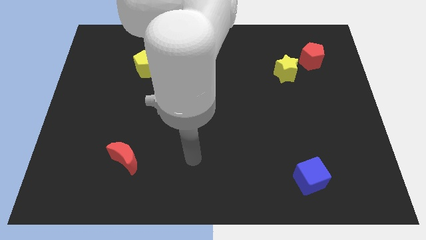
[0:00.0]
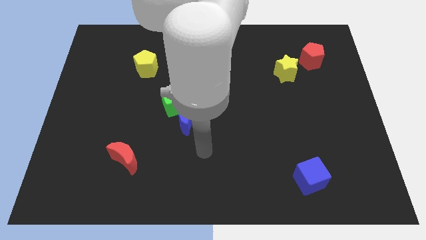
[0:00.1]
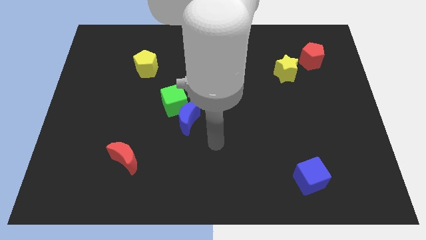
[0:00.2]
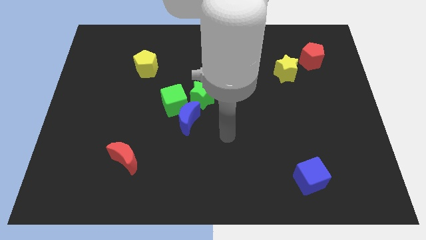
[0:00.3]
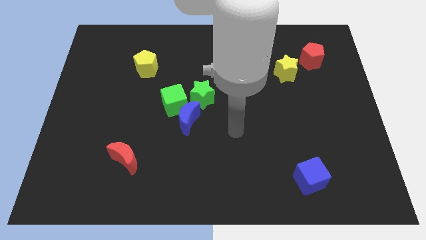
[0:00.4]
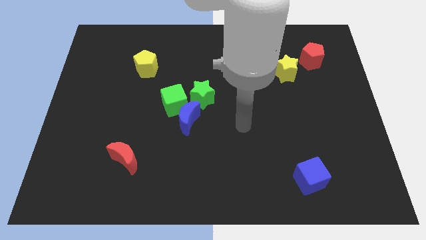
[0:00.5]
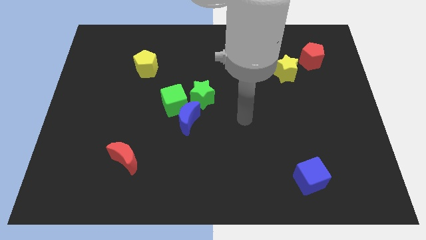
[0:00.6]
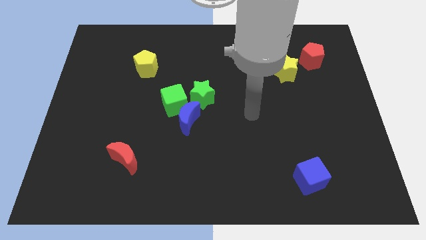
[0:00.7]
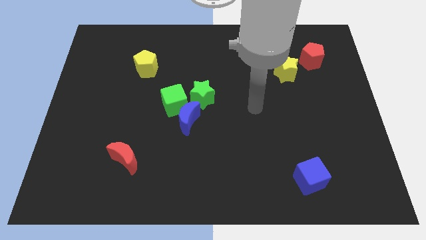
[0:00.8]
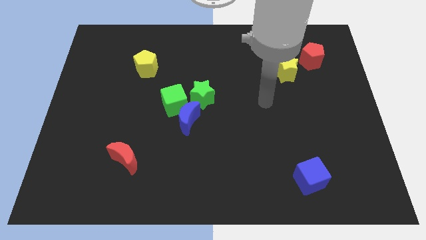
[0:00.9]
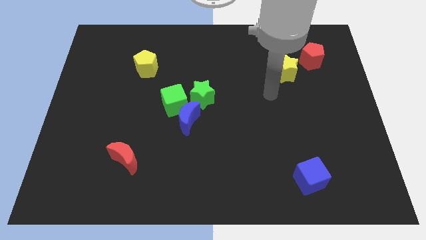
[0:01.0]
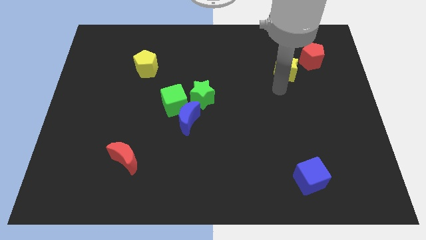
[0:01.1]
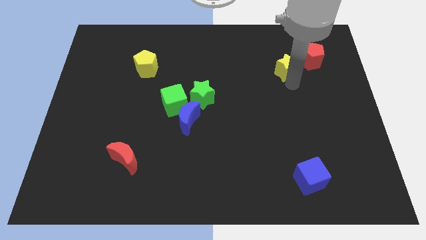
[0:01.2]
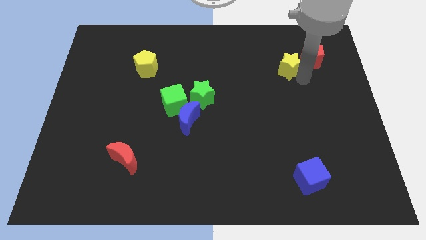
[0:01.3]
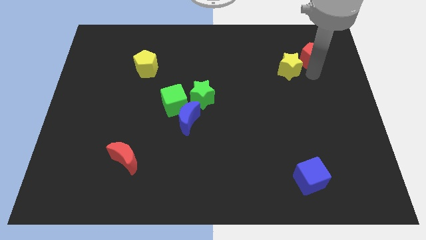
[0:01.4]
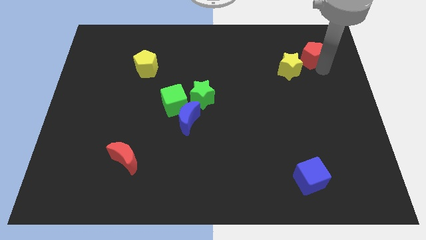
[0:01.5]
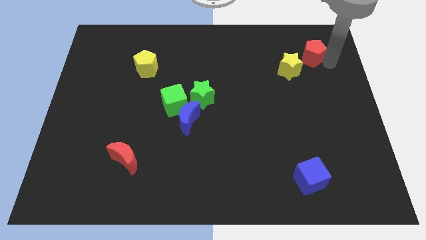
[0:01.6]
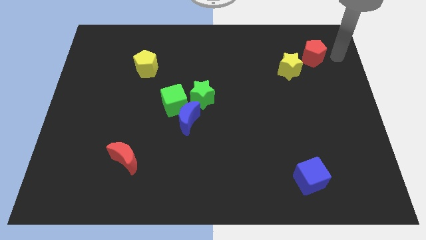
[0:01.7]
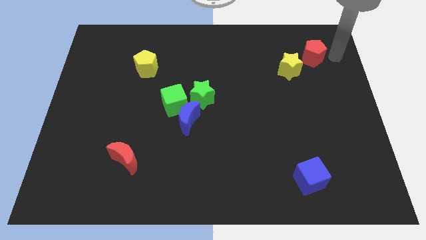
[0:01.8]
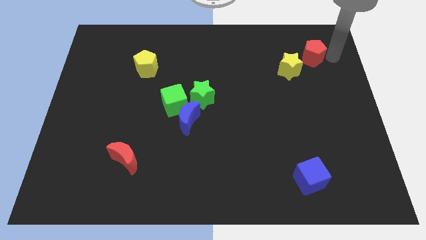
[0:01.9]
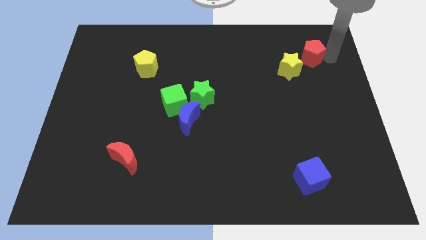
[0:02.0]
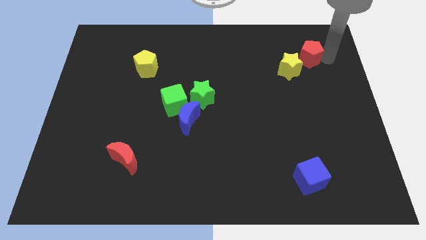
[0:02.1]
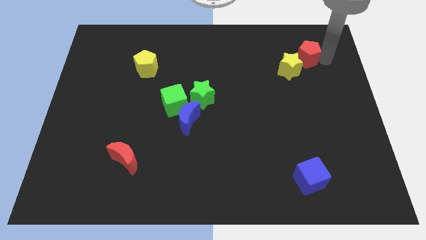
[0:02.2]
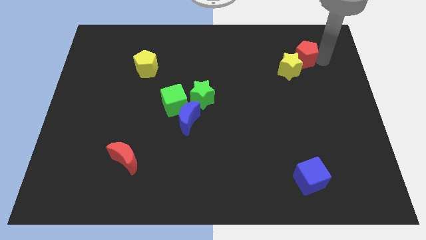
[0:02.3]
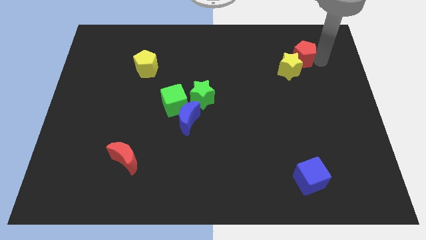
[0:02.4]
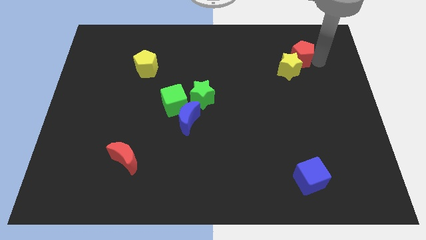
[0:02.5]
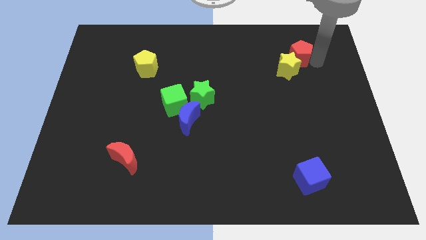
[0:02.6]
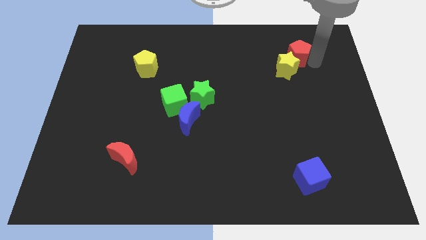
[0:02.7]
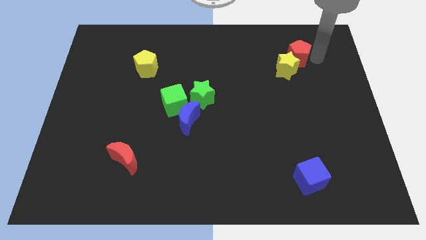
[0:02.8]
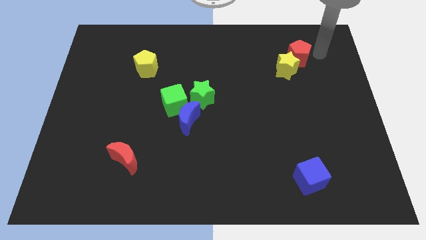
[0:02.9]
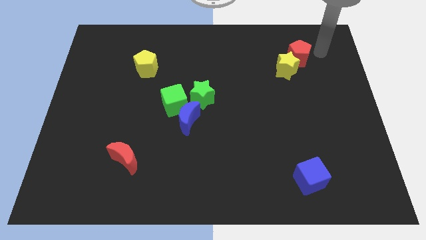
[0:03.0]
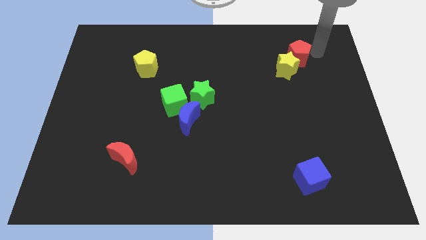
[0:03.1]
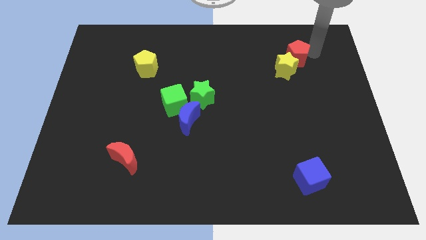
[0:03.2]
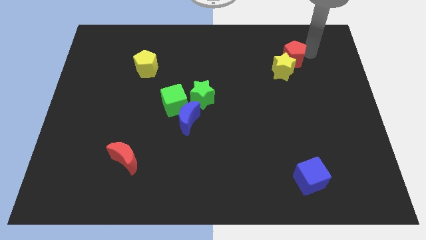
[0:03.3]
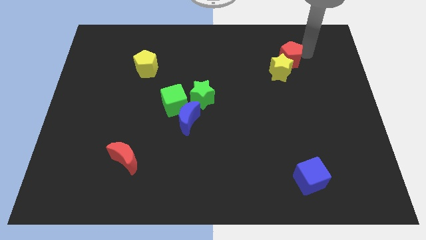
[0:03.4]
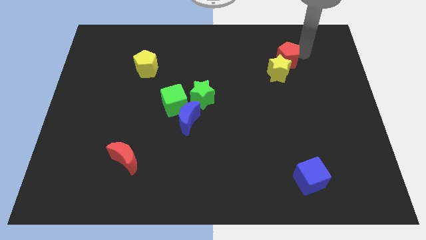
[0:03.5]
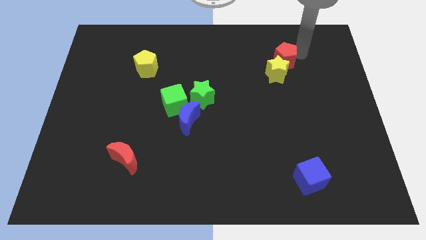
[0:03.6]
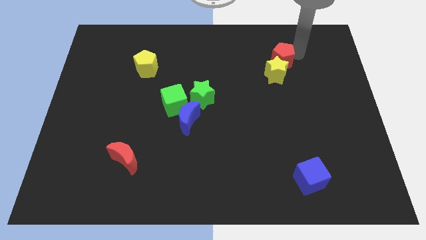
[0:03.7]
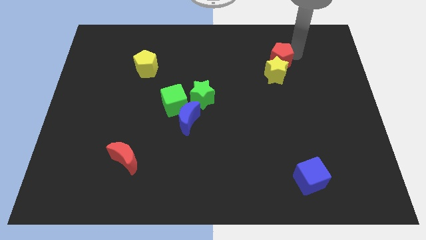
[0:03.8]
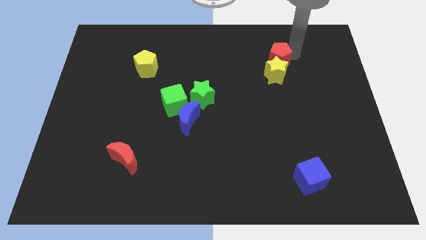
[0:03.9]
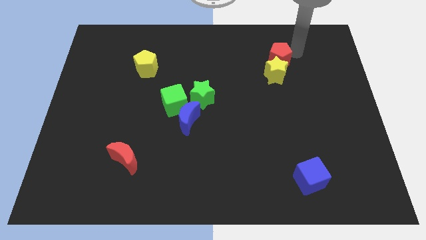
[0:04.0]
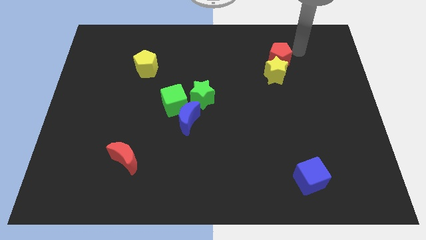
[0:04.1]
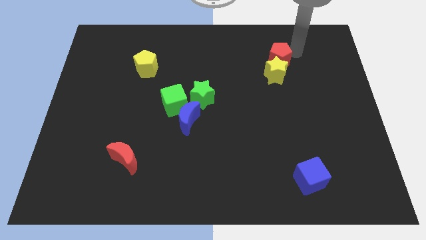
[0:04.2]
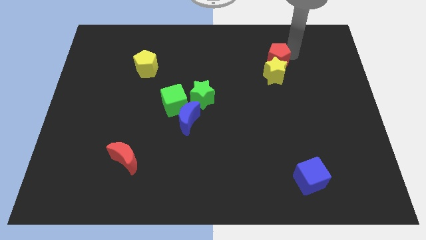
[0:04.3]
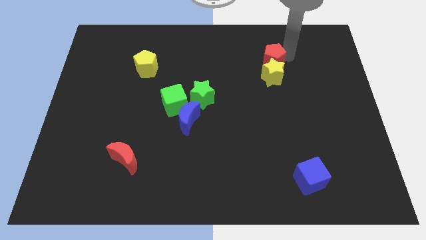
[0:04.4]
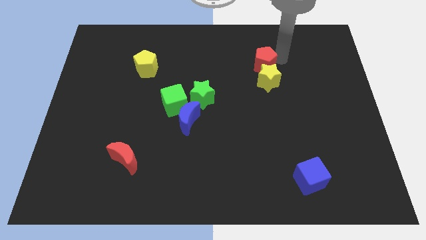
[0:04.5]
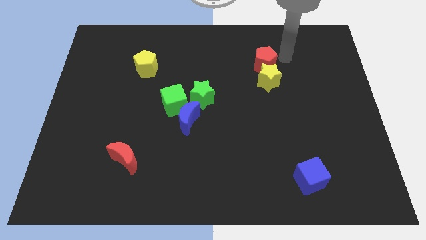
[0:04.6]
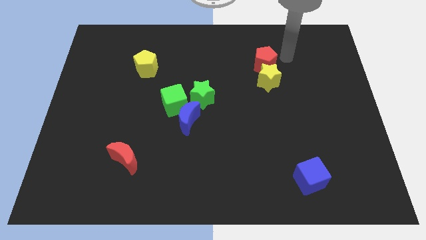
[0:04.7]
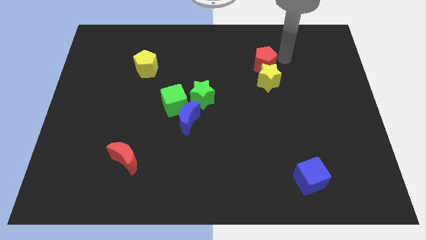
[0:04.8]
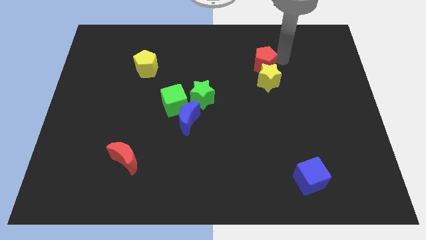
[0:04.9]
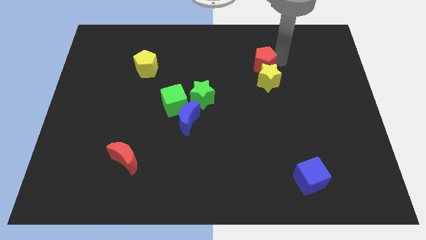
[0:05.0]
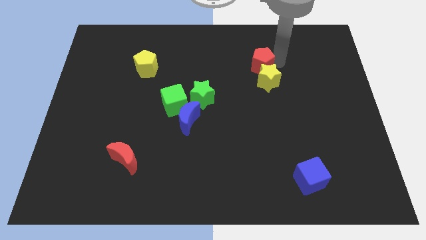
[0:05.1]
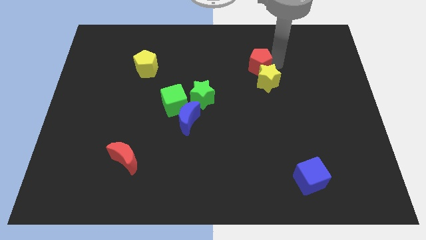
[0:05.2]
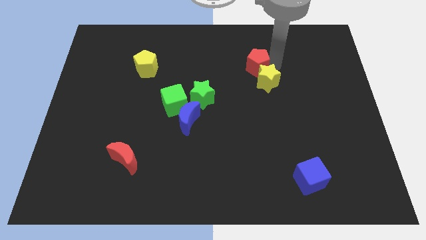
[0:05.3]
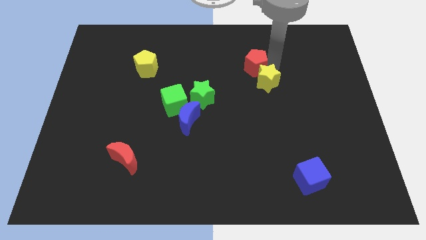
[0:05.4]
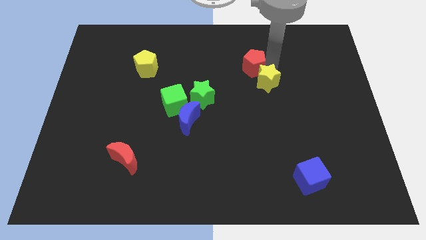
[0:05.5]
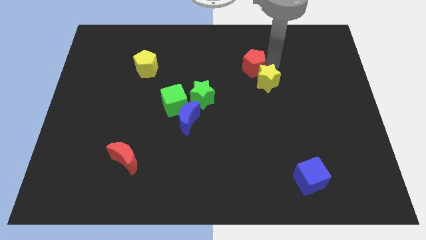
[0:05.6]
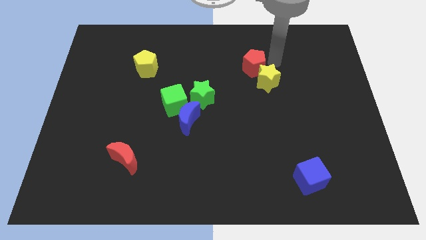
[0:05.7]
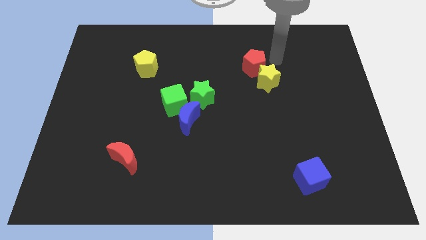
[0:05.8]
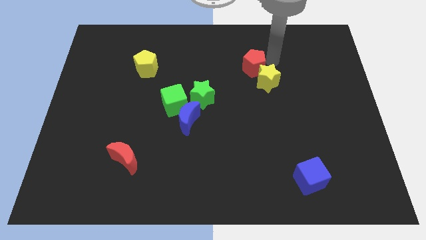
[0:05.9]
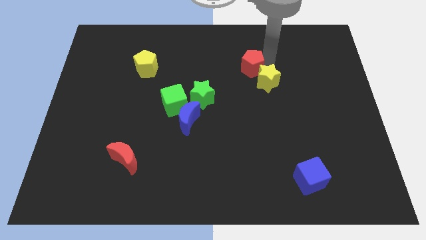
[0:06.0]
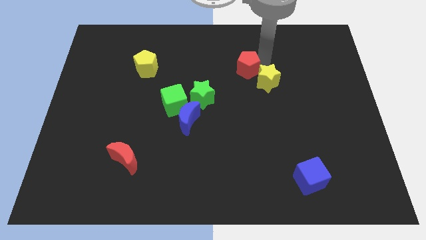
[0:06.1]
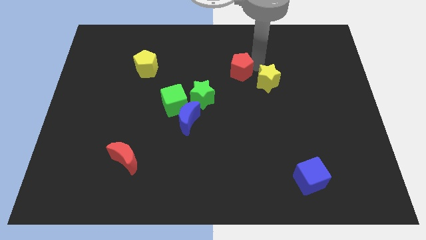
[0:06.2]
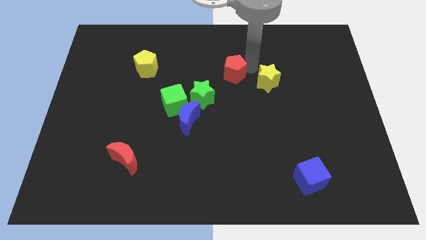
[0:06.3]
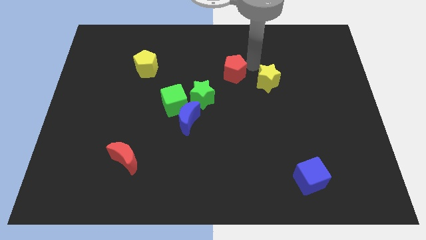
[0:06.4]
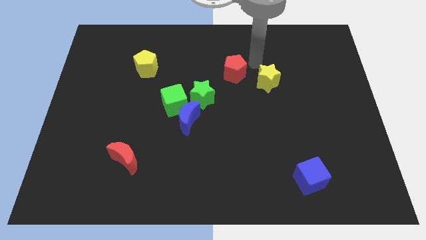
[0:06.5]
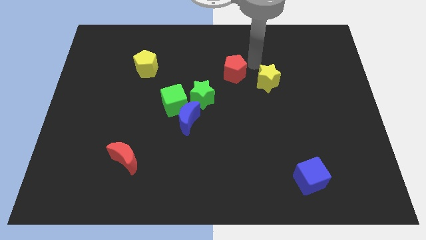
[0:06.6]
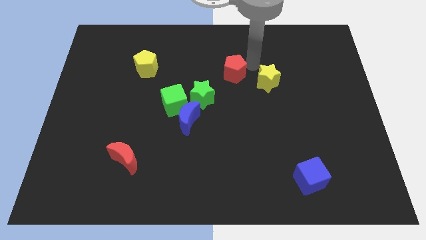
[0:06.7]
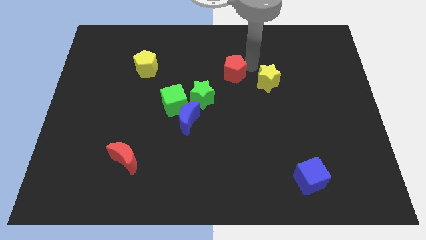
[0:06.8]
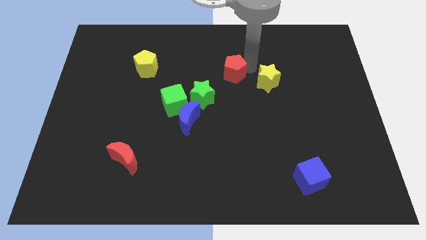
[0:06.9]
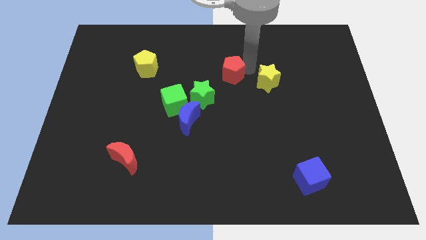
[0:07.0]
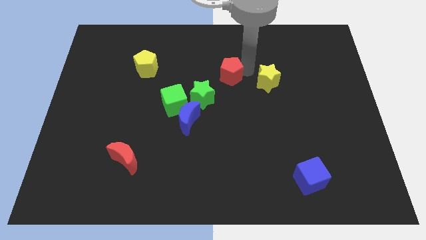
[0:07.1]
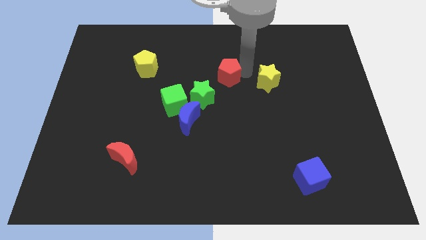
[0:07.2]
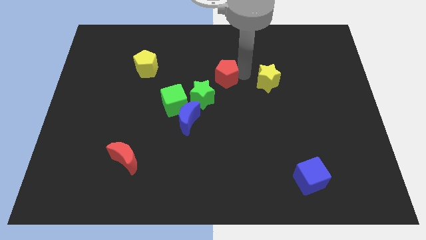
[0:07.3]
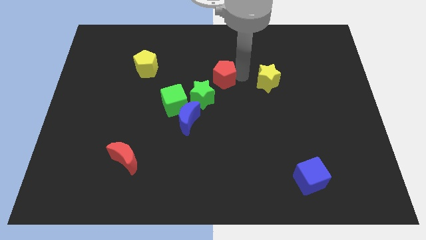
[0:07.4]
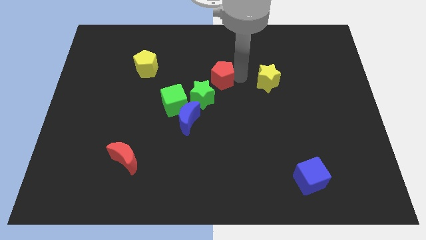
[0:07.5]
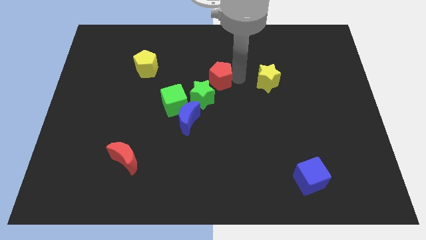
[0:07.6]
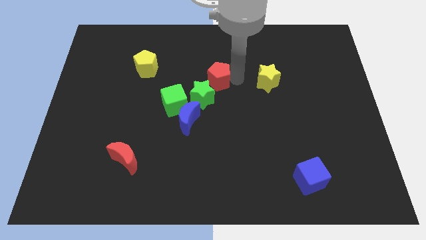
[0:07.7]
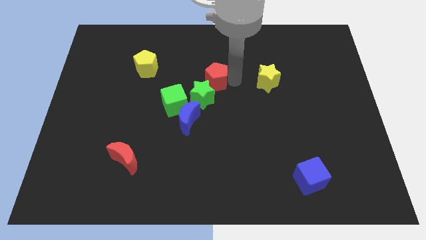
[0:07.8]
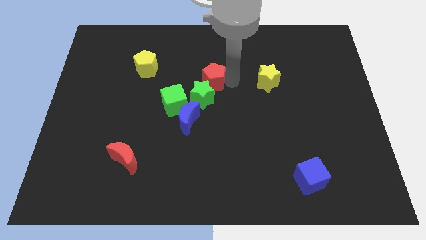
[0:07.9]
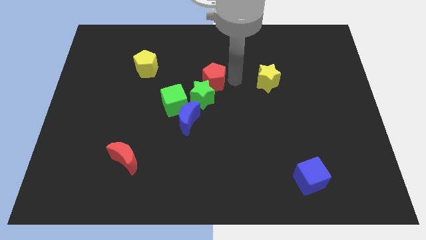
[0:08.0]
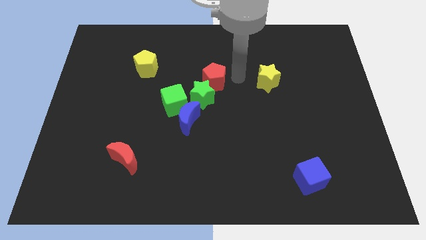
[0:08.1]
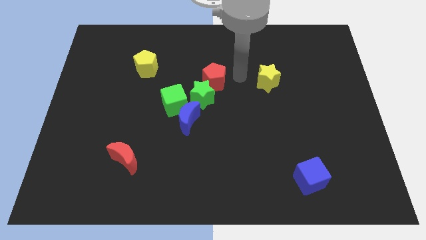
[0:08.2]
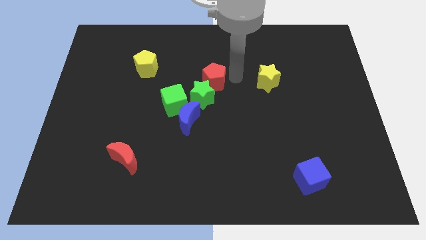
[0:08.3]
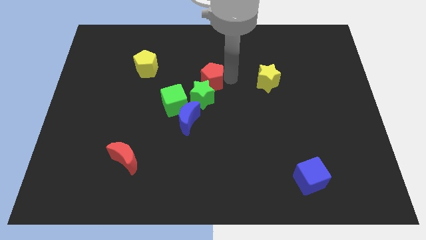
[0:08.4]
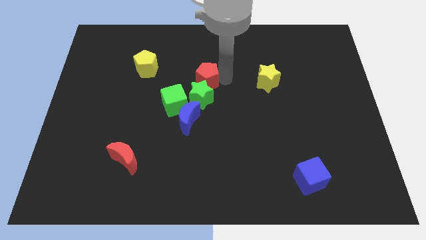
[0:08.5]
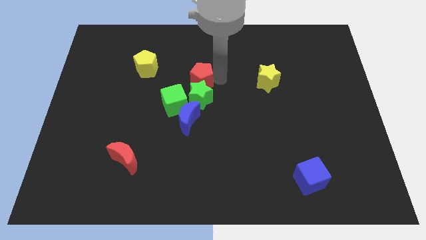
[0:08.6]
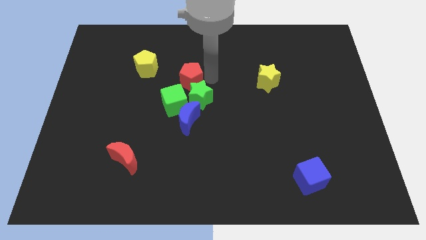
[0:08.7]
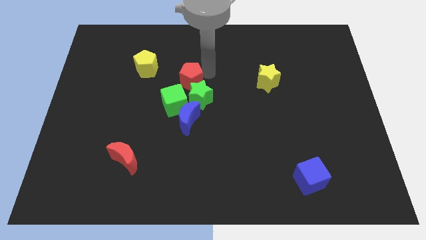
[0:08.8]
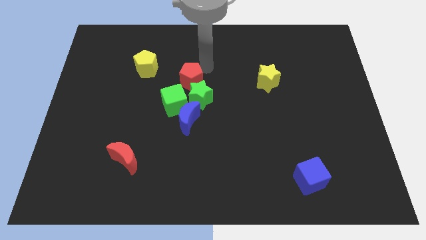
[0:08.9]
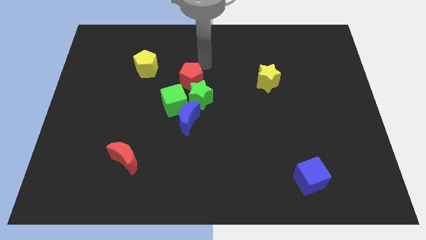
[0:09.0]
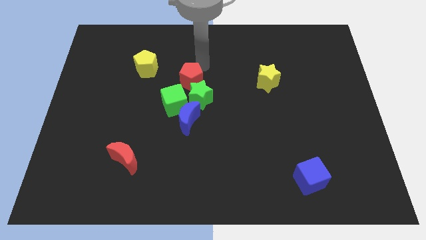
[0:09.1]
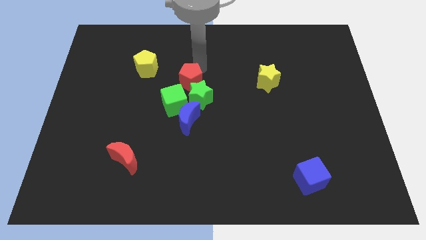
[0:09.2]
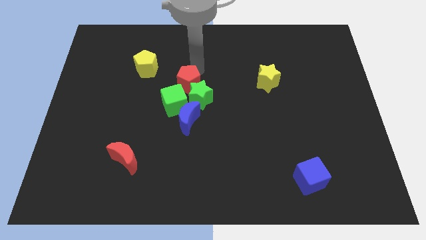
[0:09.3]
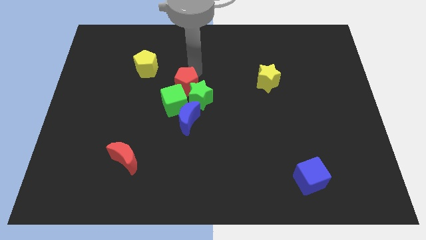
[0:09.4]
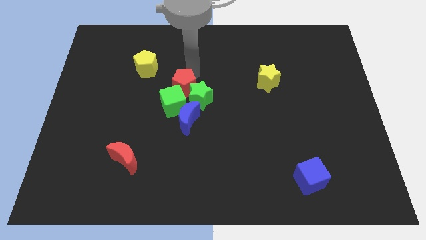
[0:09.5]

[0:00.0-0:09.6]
slide the red pentagon next to the green cube
